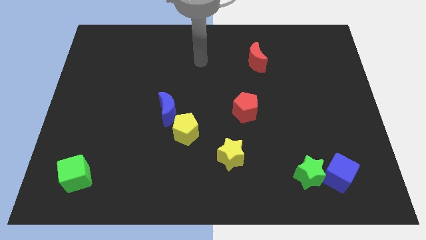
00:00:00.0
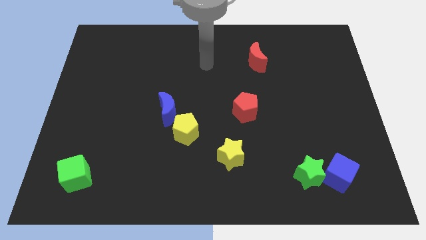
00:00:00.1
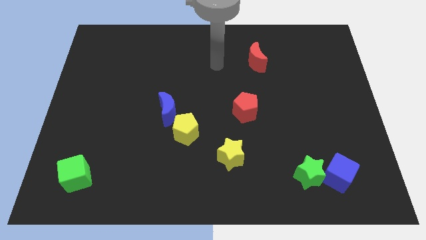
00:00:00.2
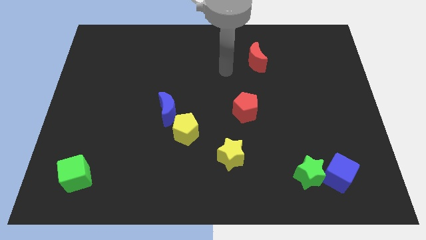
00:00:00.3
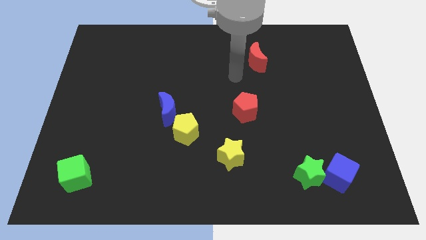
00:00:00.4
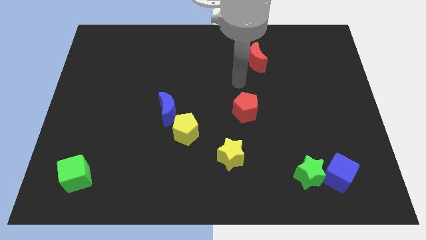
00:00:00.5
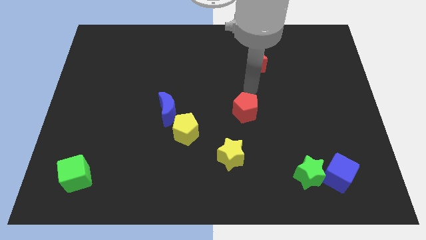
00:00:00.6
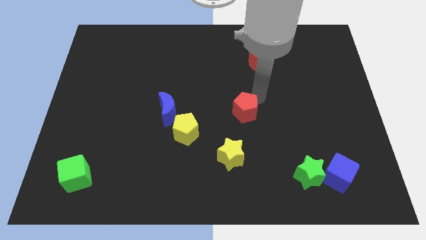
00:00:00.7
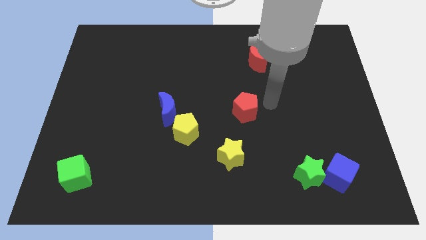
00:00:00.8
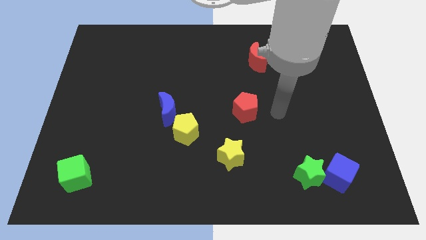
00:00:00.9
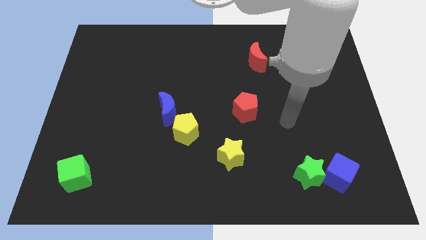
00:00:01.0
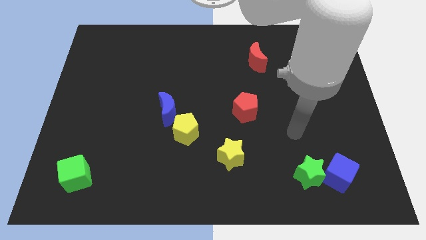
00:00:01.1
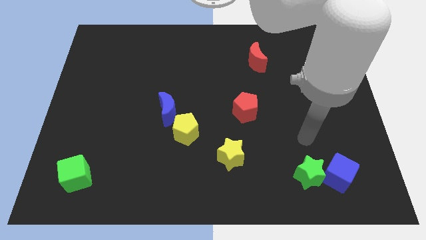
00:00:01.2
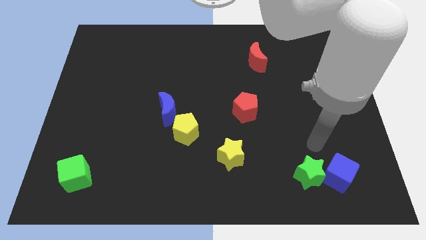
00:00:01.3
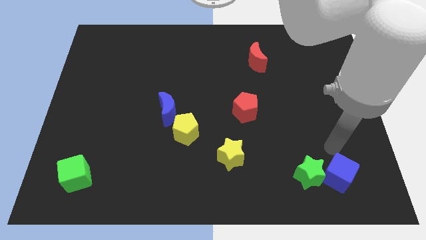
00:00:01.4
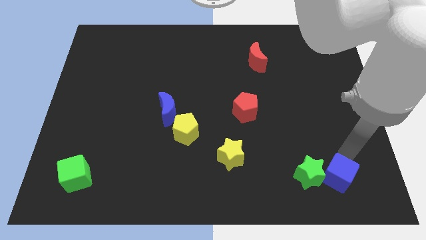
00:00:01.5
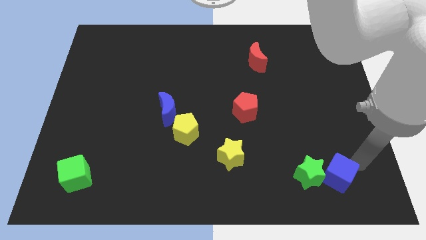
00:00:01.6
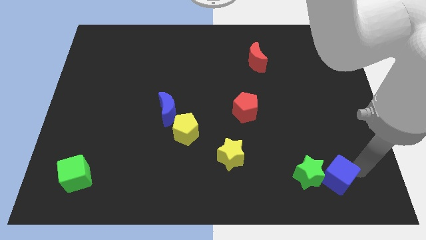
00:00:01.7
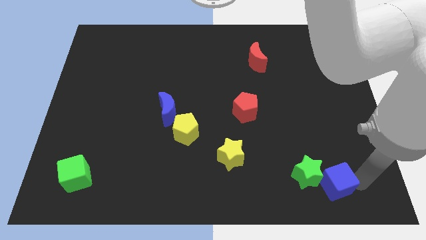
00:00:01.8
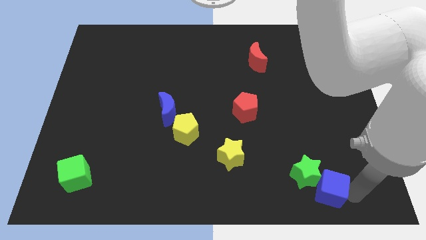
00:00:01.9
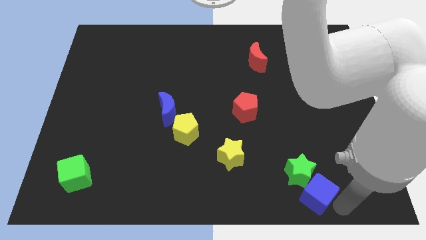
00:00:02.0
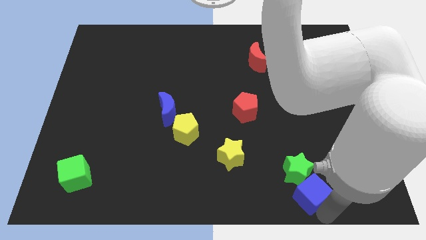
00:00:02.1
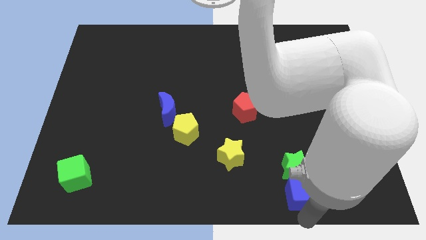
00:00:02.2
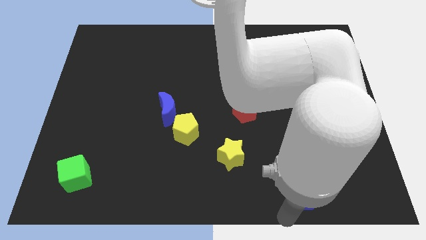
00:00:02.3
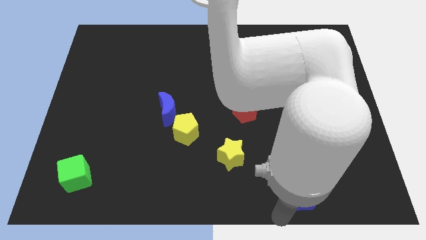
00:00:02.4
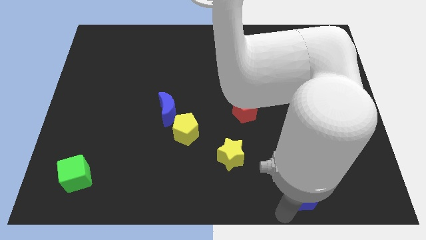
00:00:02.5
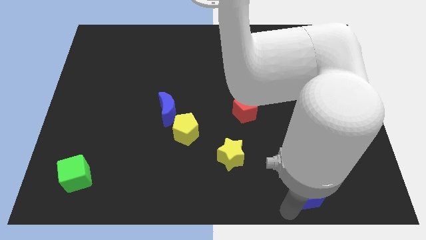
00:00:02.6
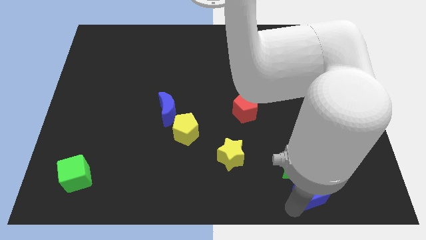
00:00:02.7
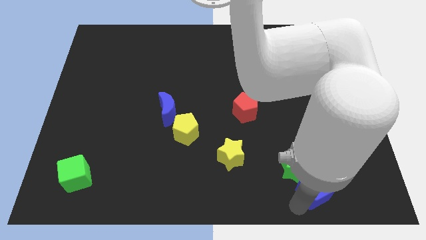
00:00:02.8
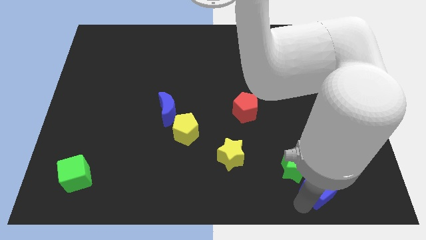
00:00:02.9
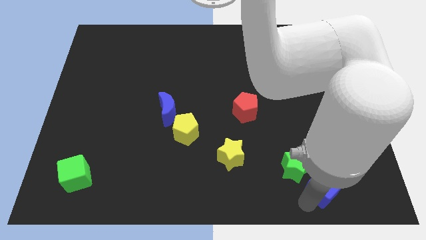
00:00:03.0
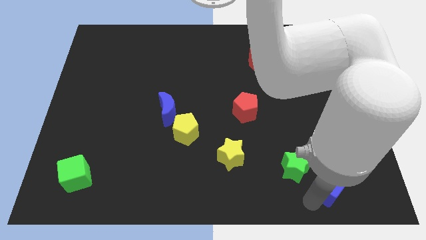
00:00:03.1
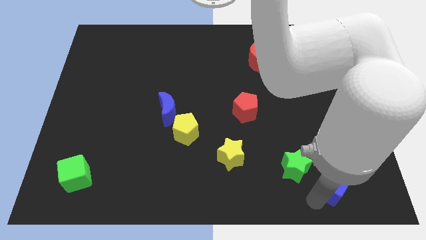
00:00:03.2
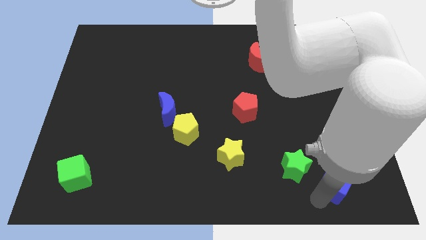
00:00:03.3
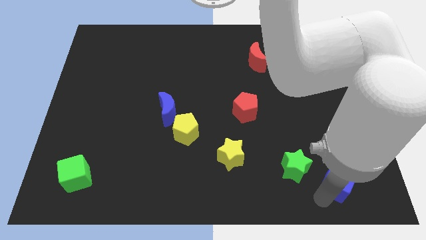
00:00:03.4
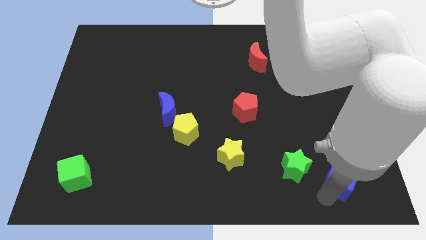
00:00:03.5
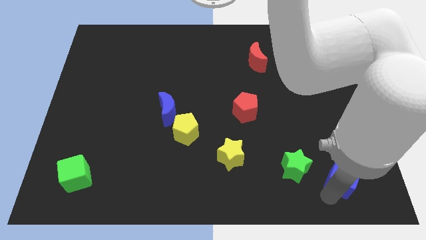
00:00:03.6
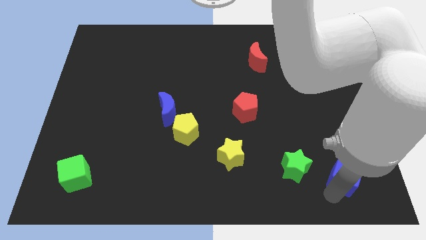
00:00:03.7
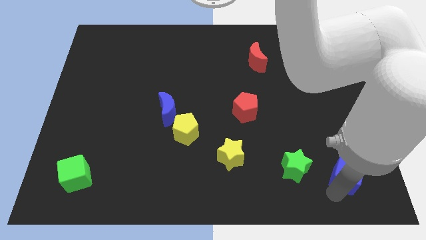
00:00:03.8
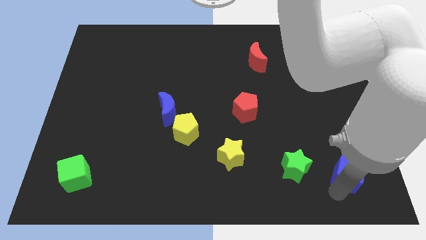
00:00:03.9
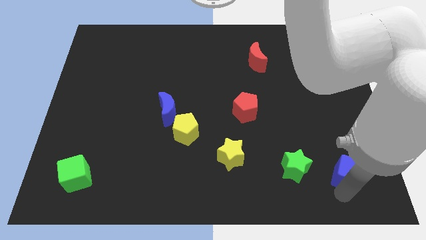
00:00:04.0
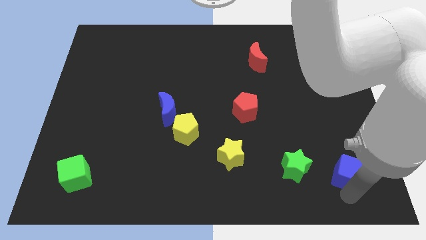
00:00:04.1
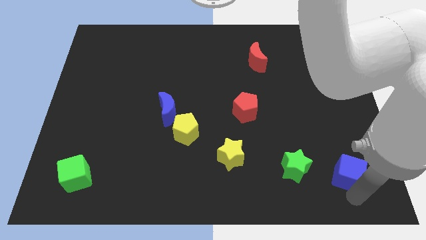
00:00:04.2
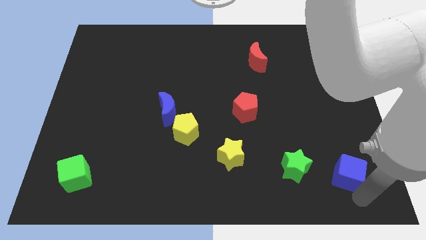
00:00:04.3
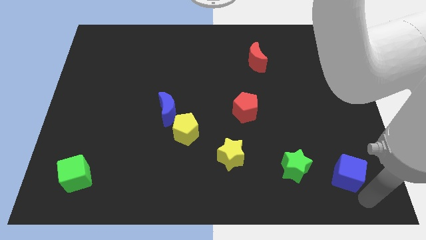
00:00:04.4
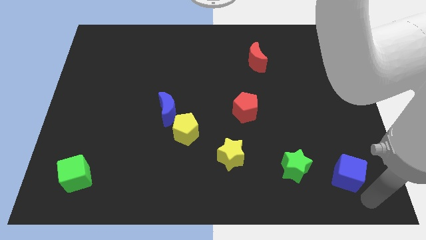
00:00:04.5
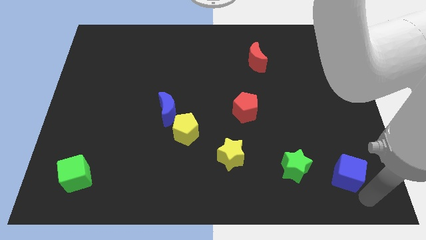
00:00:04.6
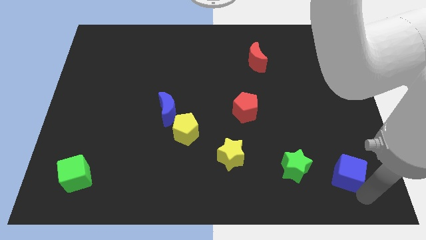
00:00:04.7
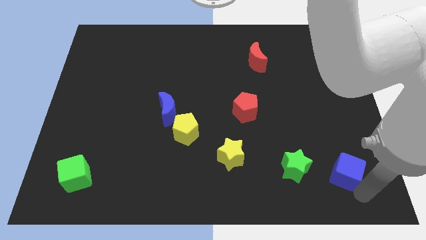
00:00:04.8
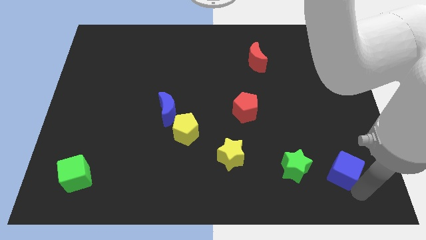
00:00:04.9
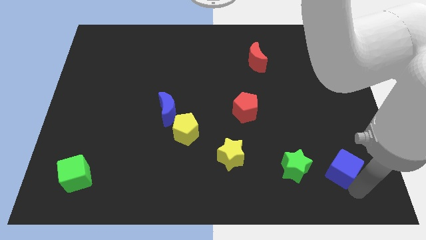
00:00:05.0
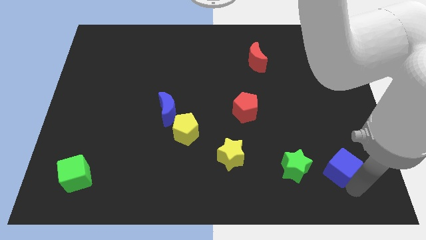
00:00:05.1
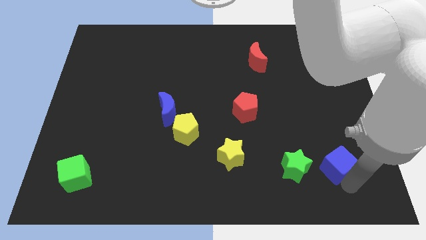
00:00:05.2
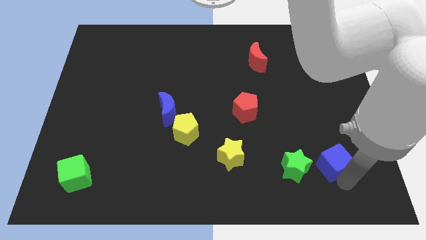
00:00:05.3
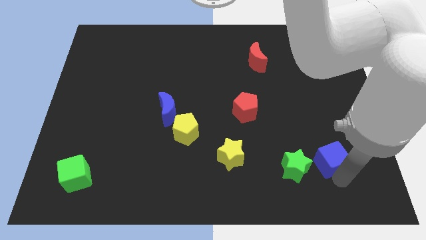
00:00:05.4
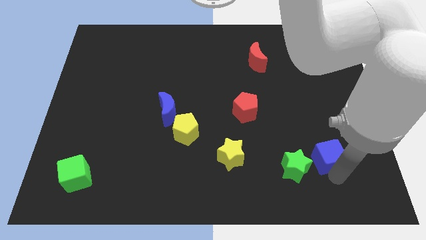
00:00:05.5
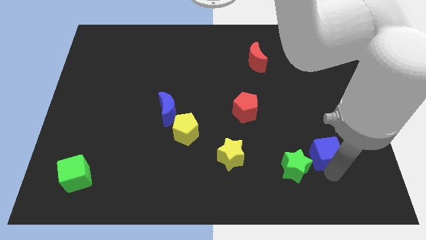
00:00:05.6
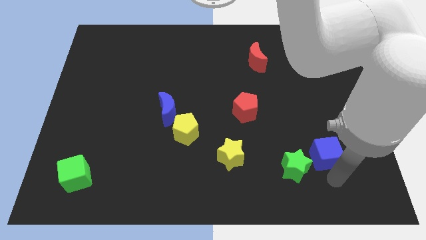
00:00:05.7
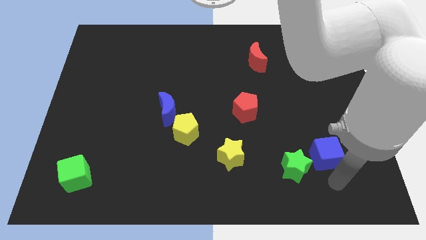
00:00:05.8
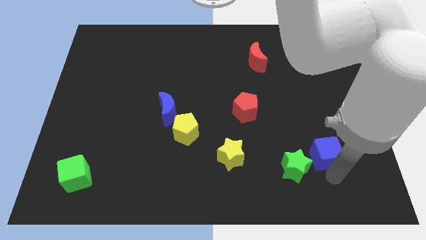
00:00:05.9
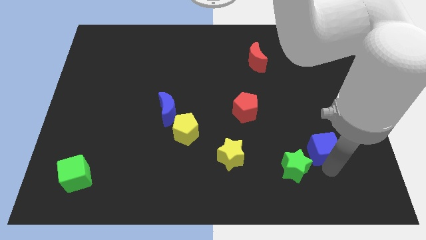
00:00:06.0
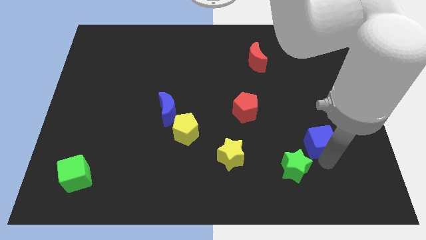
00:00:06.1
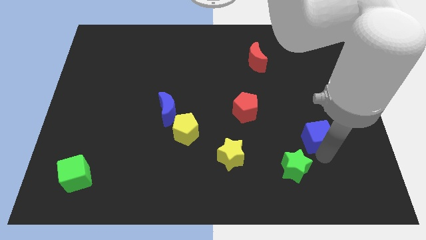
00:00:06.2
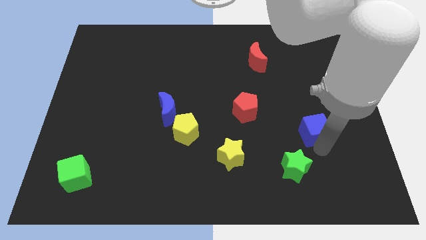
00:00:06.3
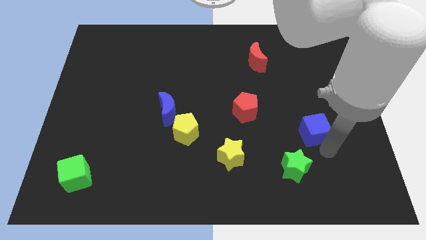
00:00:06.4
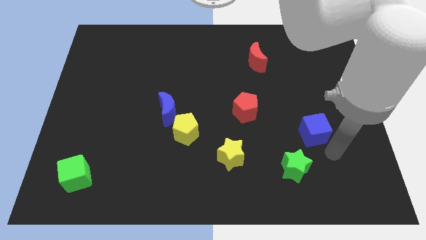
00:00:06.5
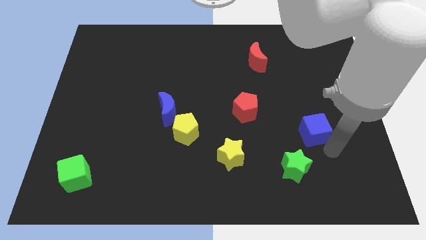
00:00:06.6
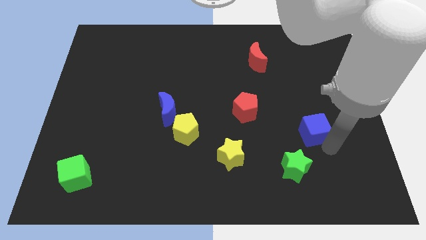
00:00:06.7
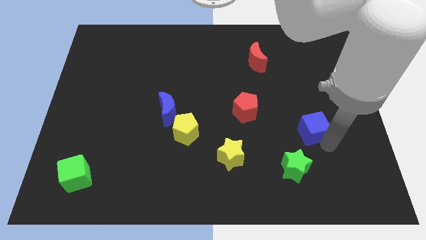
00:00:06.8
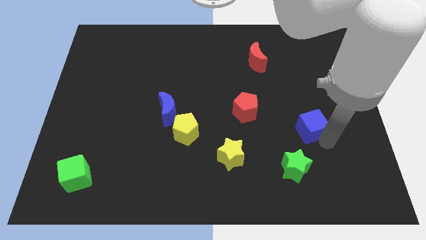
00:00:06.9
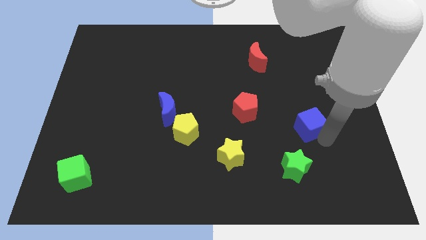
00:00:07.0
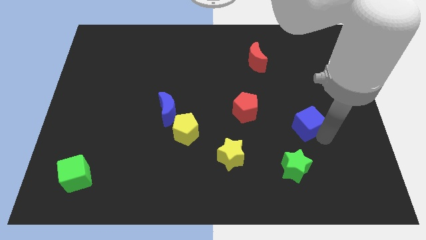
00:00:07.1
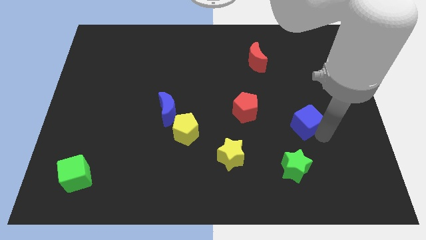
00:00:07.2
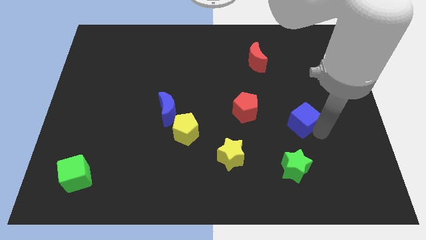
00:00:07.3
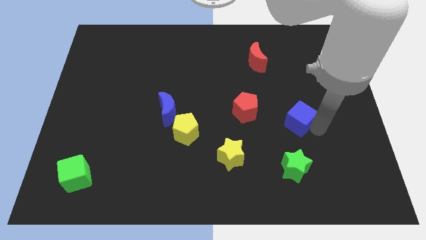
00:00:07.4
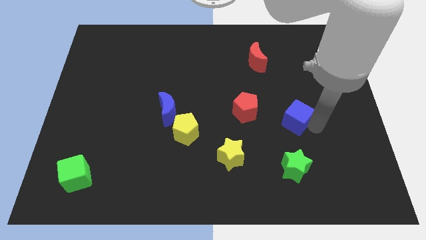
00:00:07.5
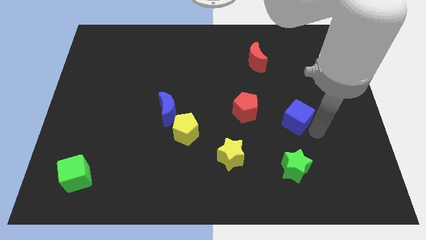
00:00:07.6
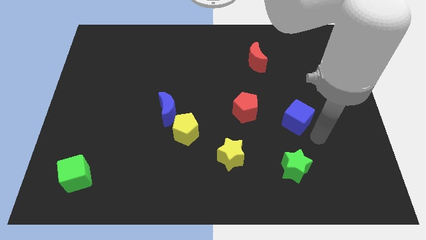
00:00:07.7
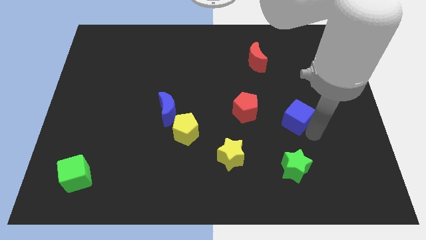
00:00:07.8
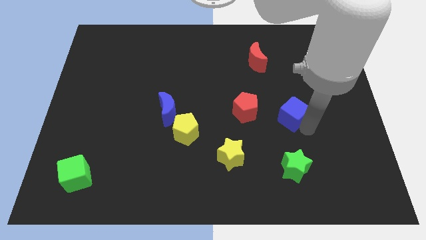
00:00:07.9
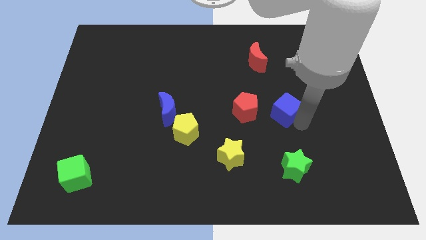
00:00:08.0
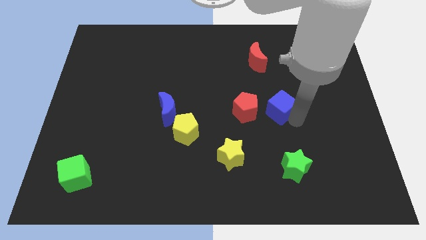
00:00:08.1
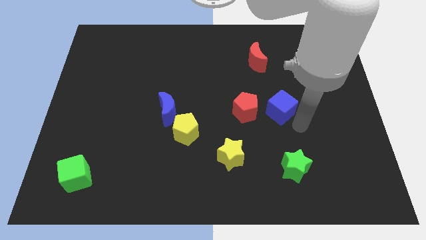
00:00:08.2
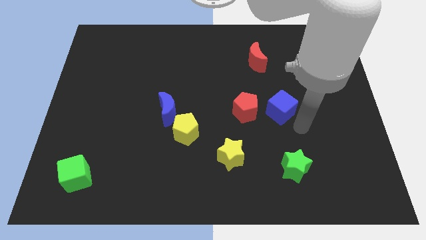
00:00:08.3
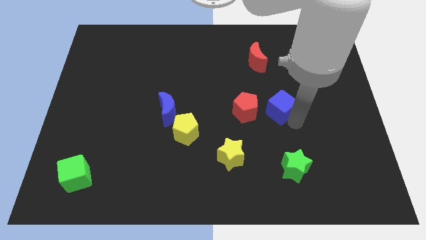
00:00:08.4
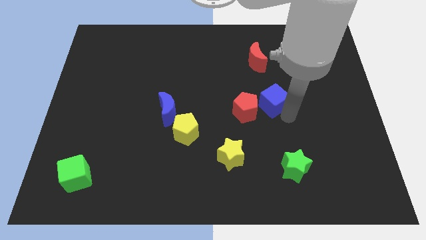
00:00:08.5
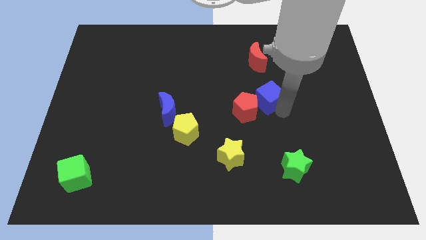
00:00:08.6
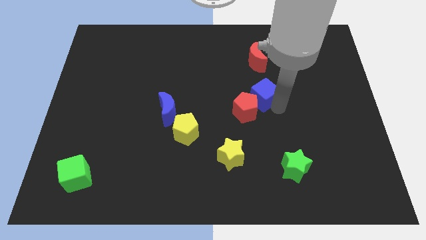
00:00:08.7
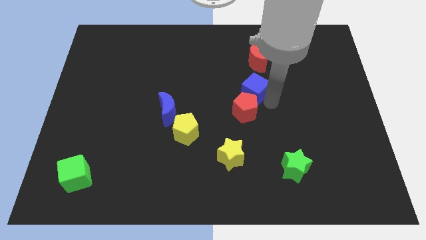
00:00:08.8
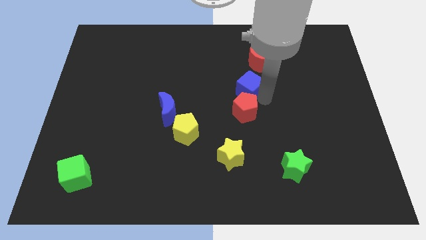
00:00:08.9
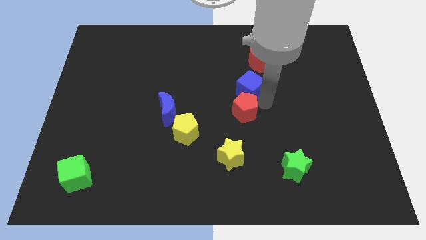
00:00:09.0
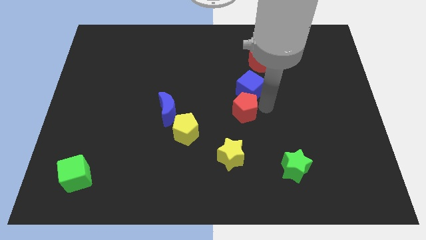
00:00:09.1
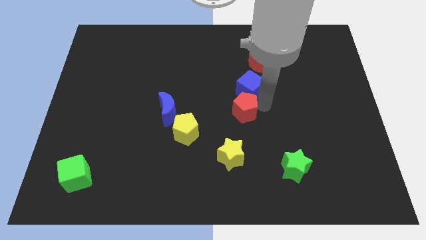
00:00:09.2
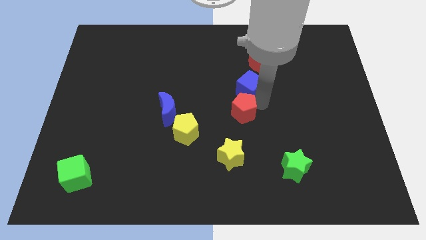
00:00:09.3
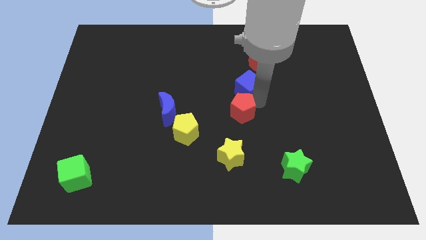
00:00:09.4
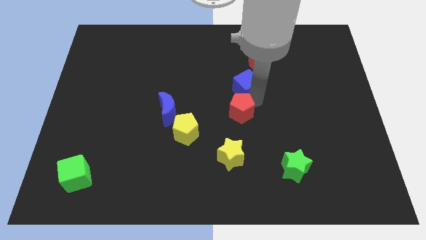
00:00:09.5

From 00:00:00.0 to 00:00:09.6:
put the blue cube diagonally down and to the left of the red moon
